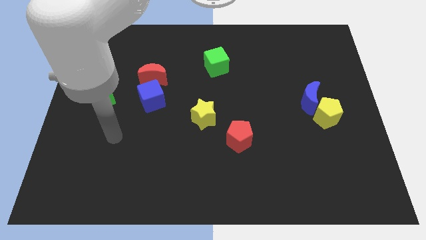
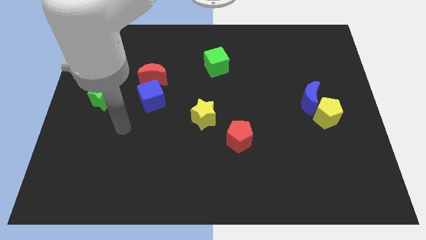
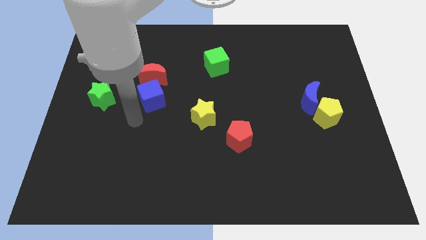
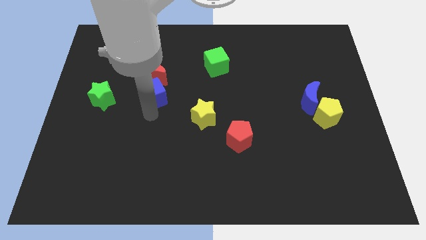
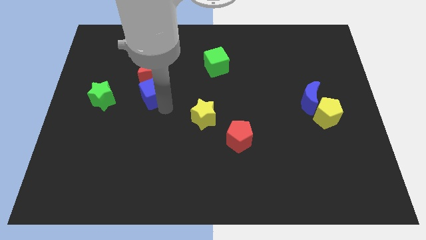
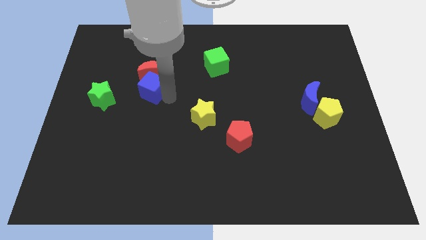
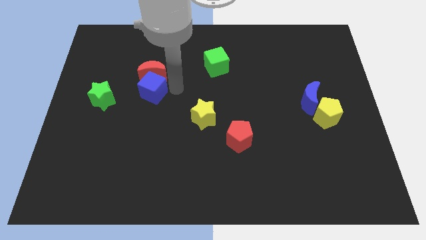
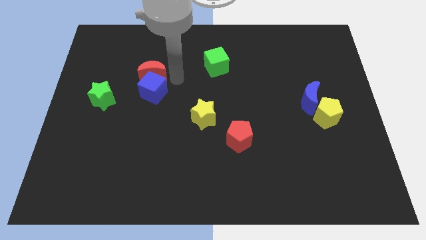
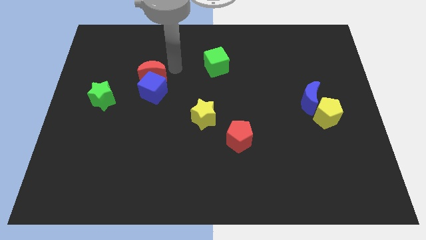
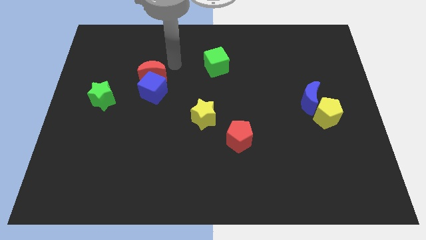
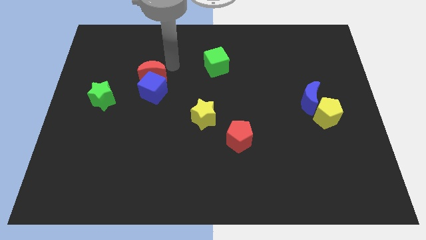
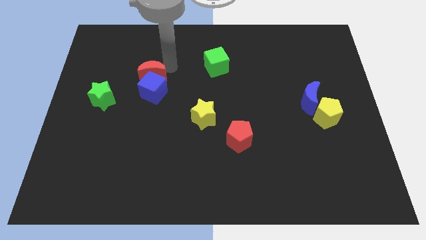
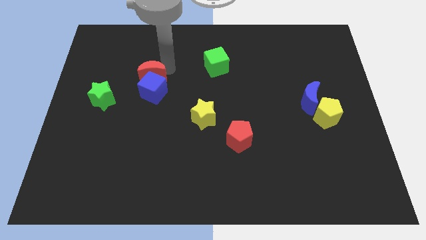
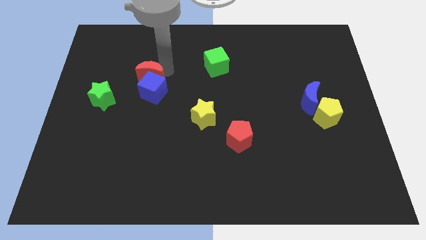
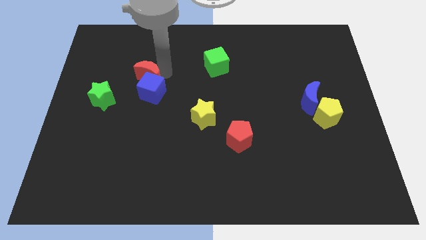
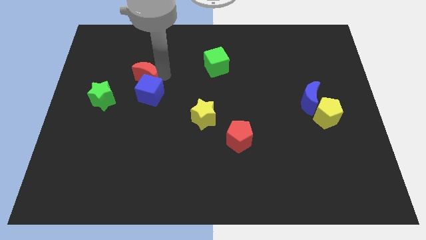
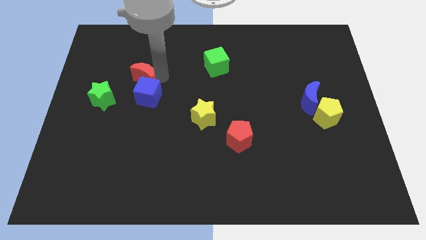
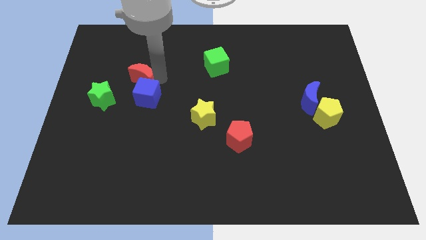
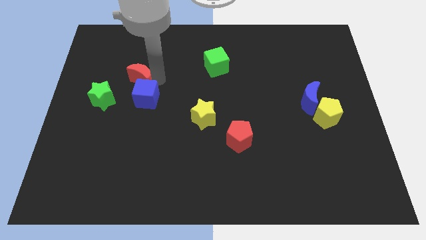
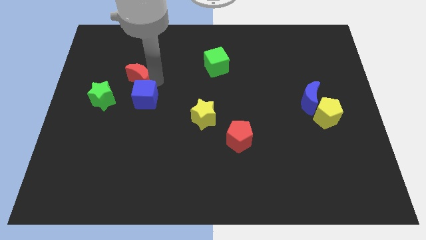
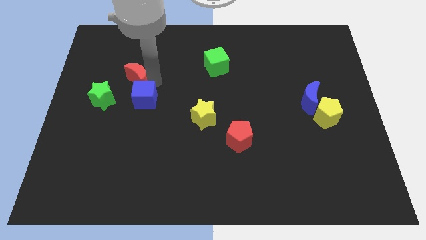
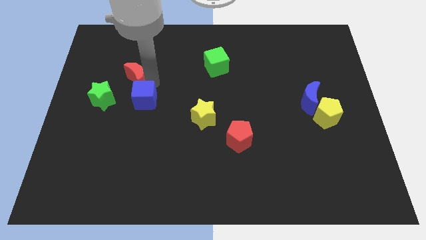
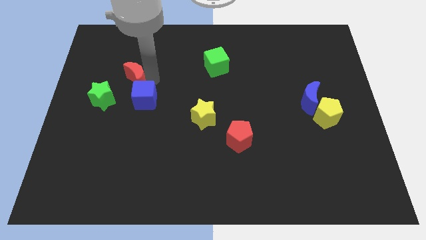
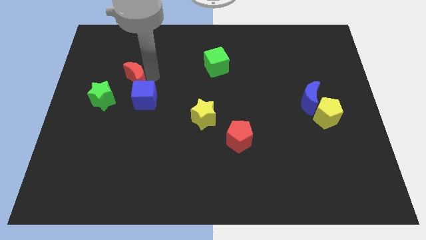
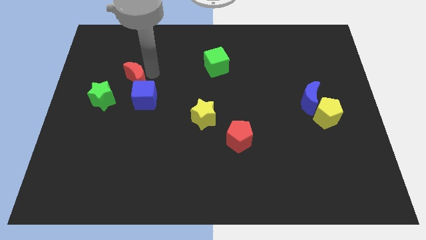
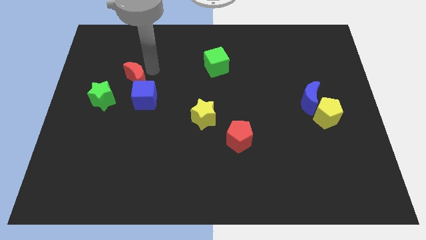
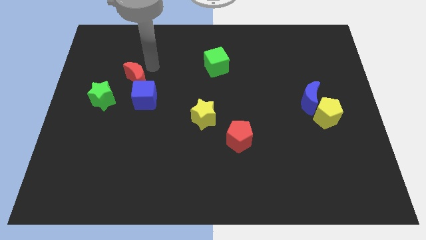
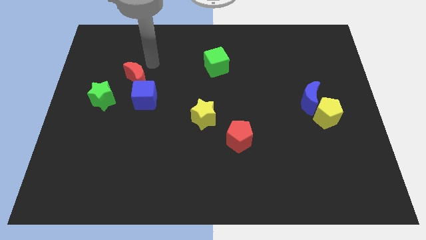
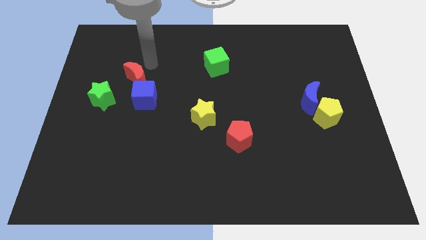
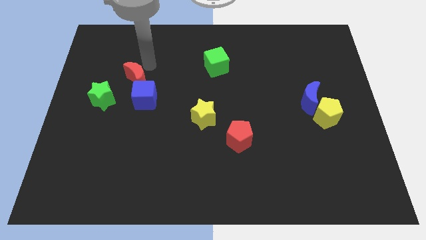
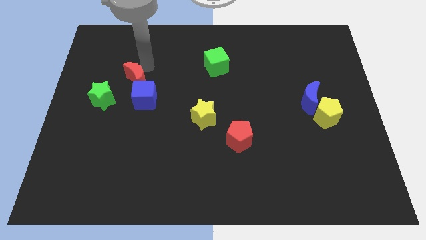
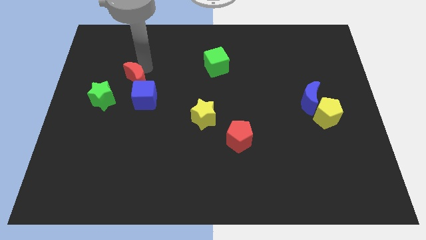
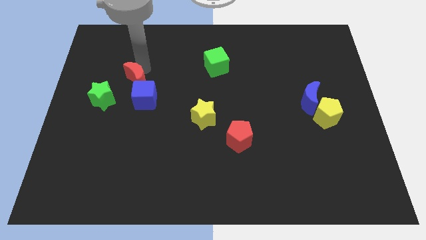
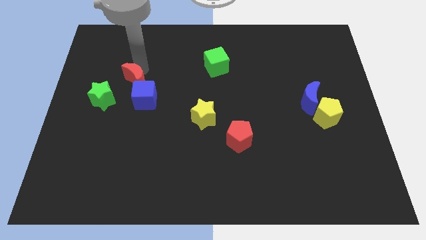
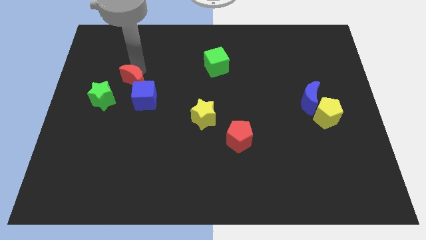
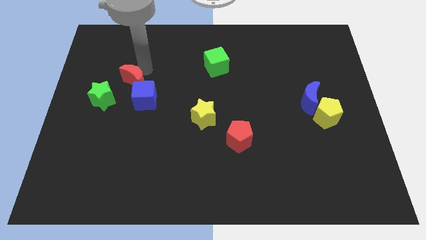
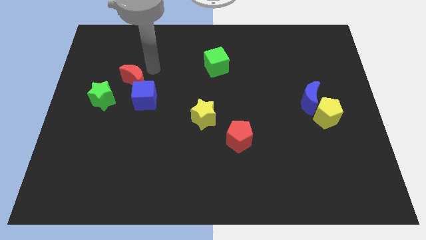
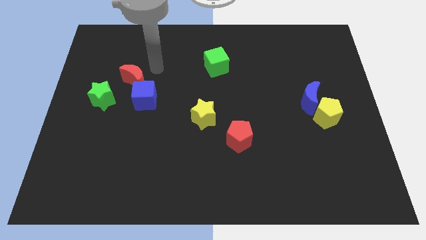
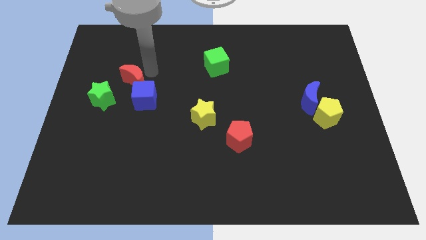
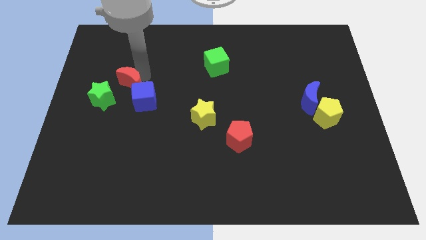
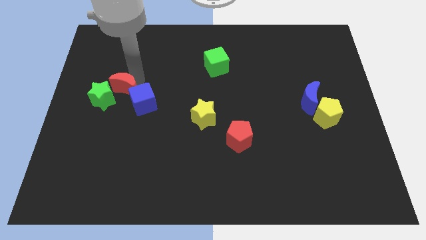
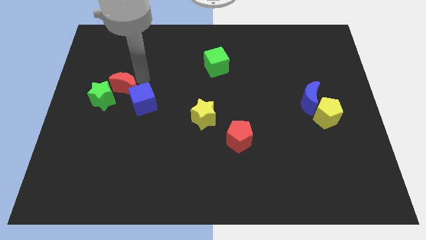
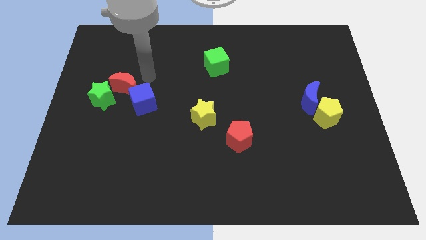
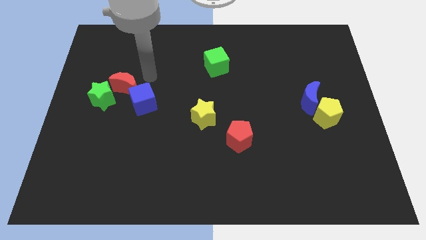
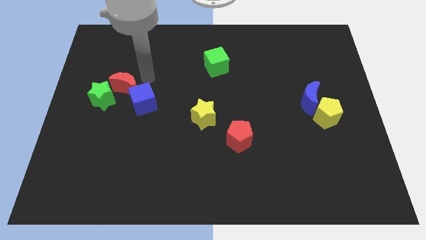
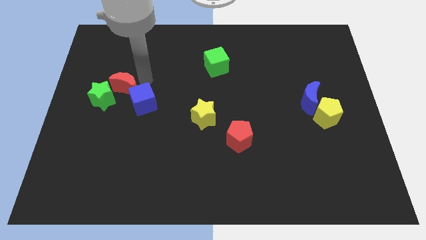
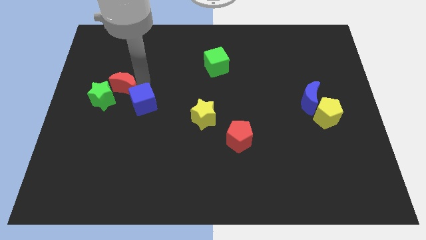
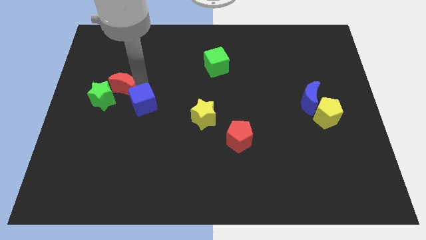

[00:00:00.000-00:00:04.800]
move the red moon next to the green star

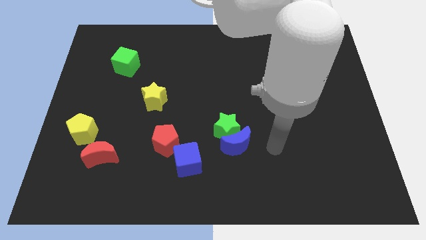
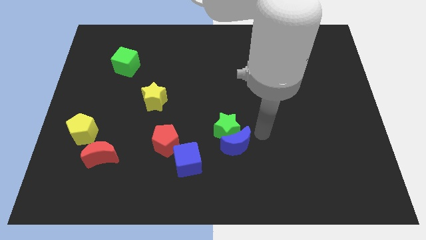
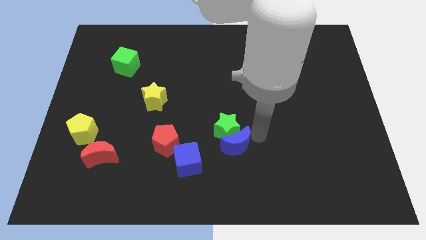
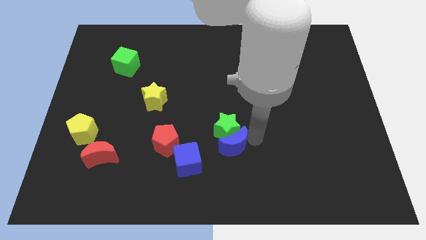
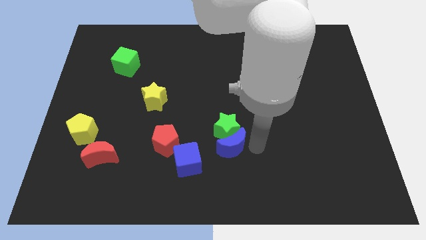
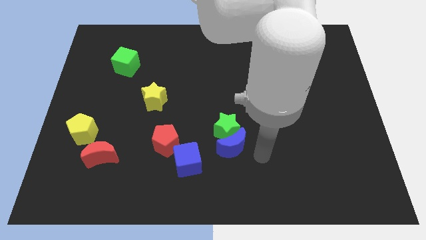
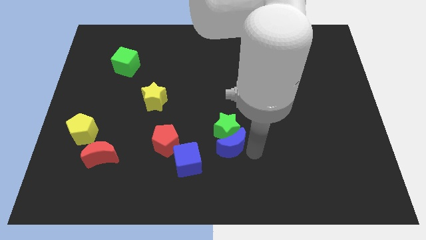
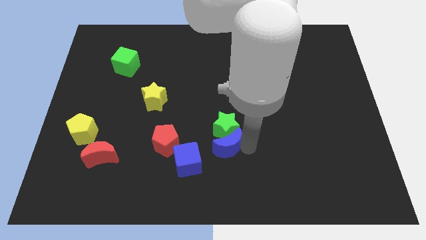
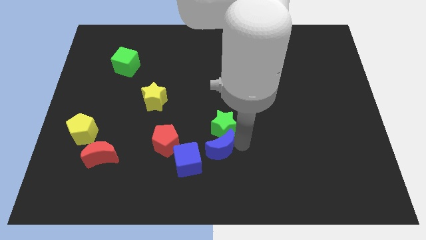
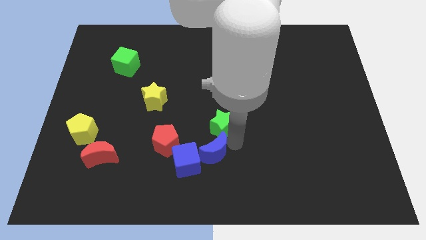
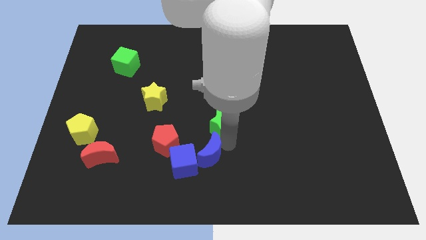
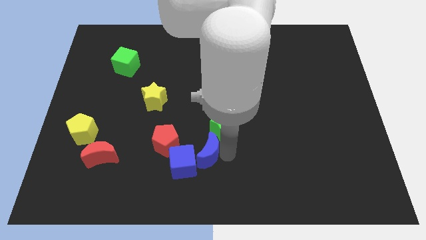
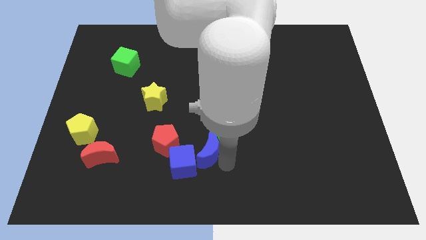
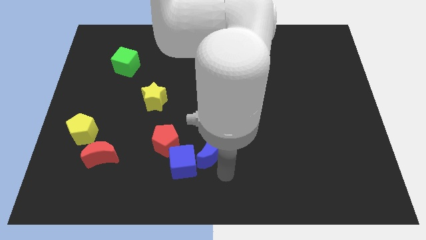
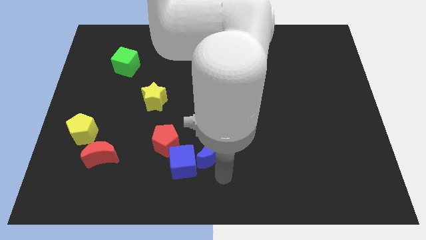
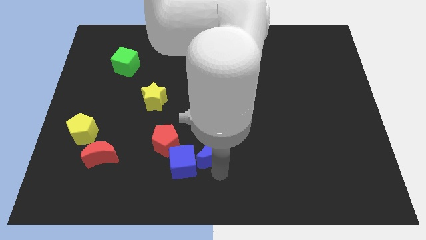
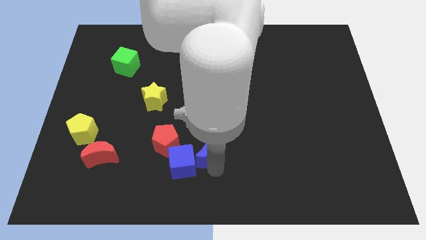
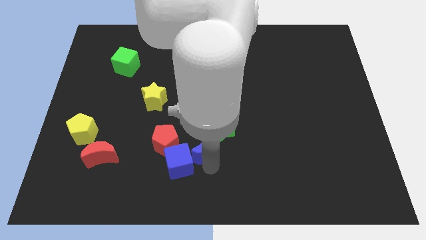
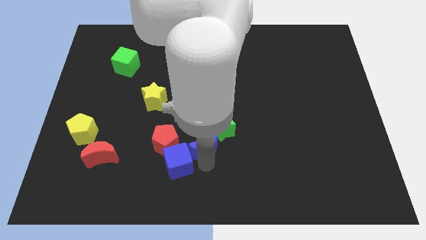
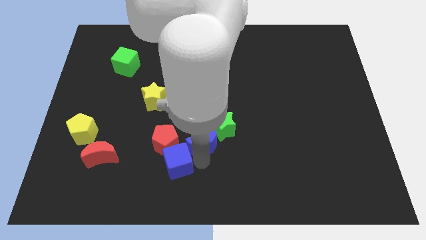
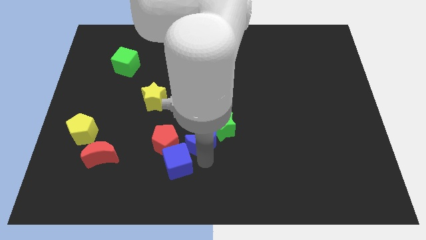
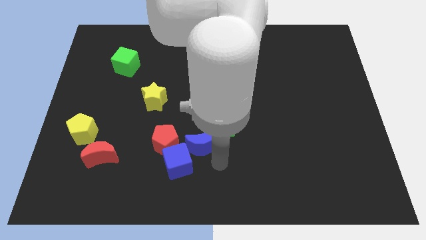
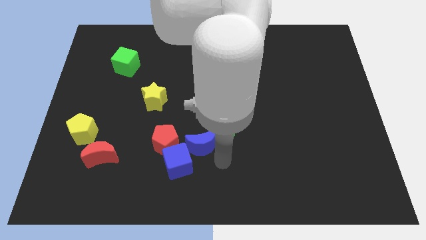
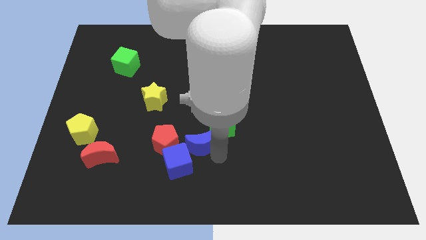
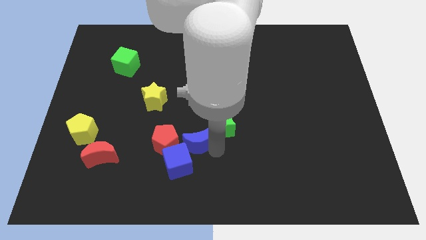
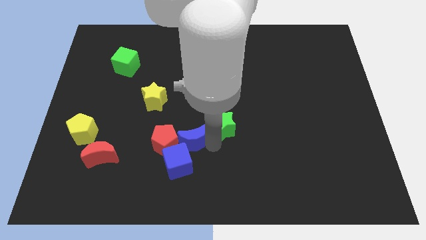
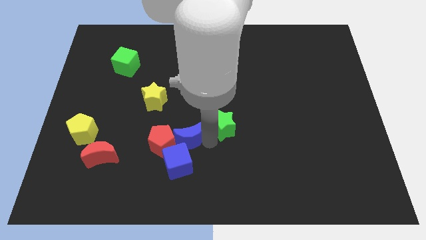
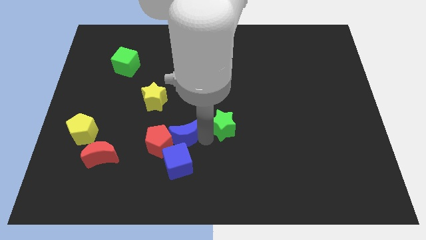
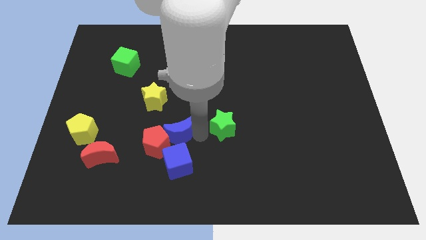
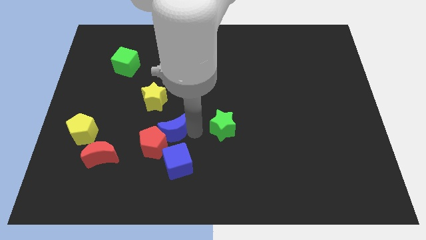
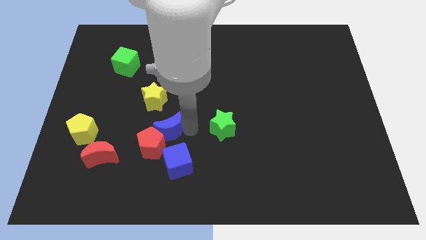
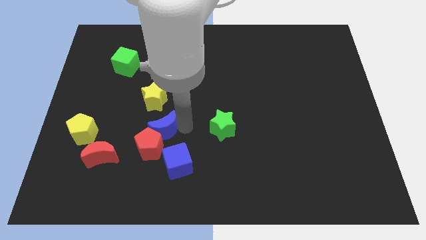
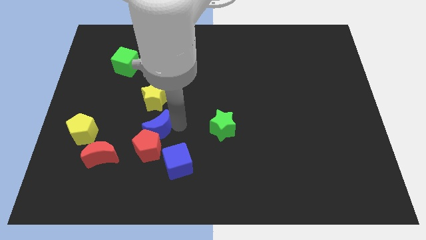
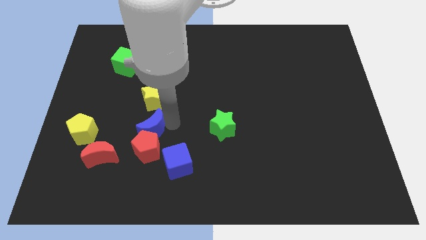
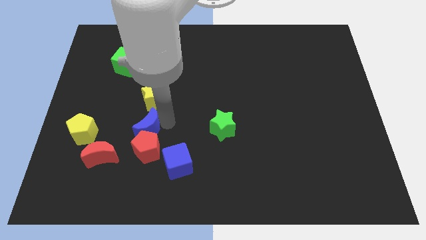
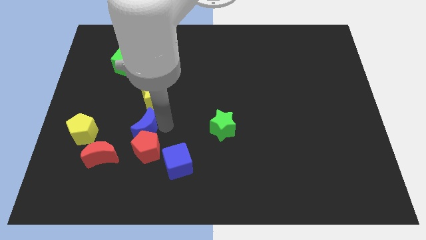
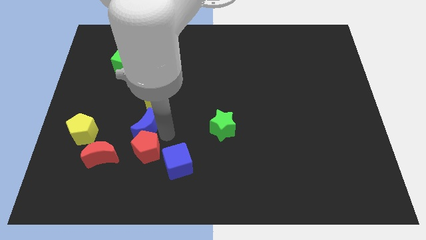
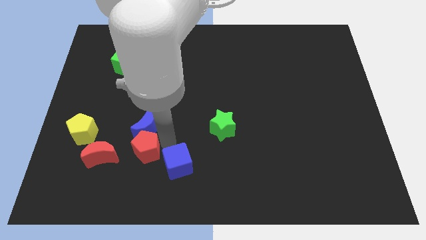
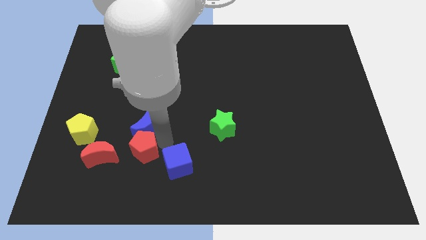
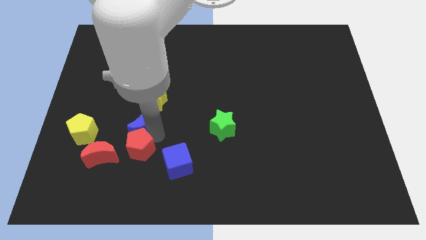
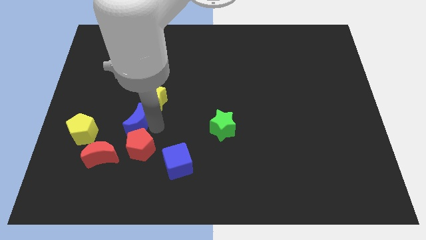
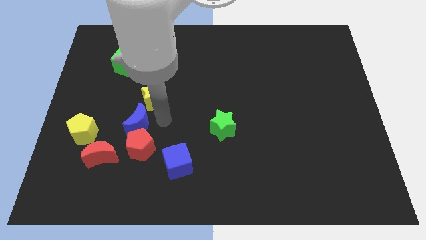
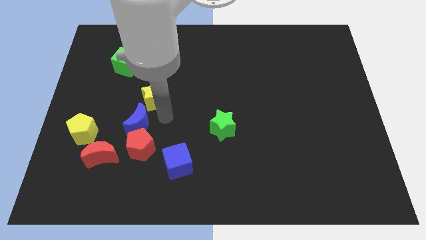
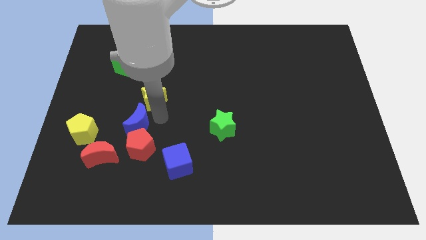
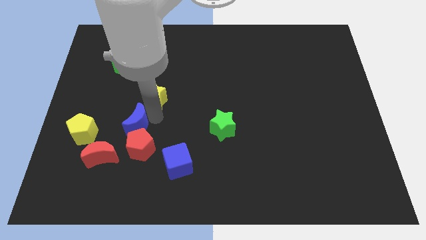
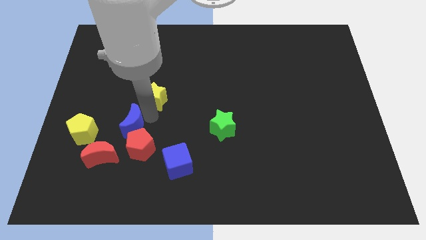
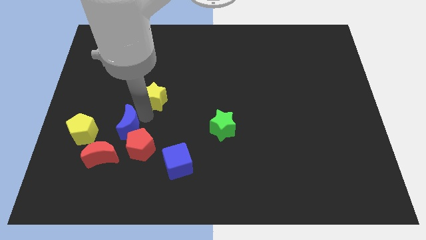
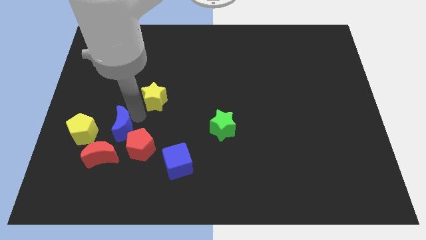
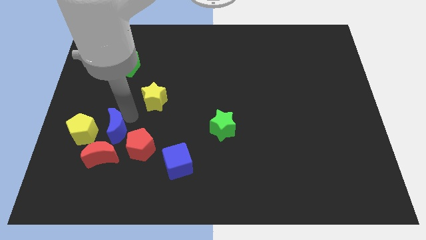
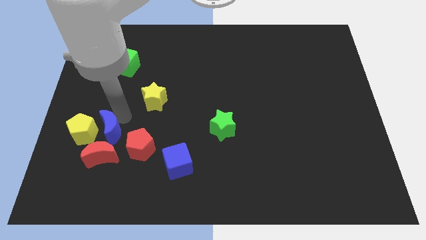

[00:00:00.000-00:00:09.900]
slide the blue moon to the yellow pentagon
